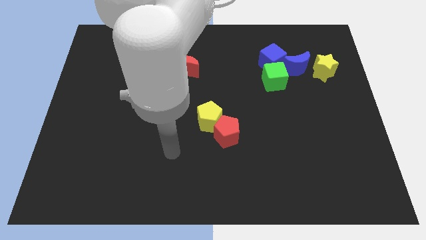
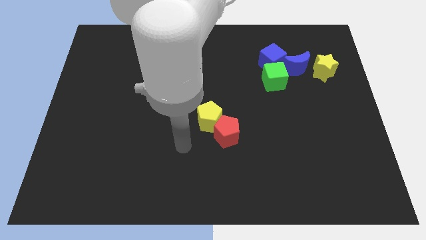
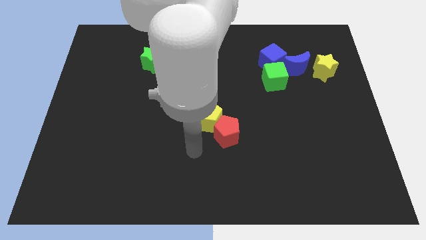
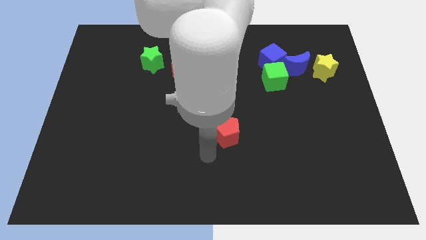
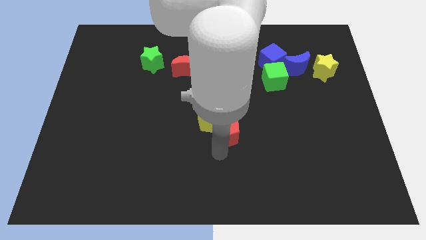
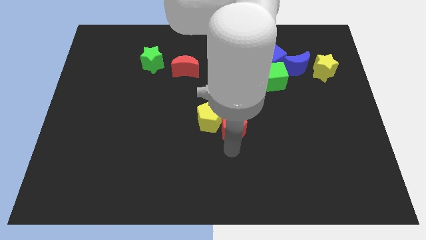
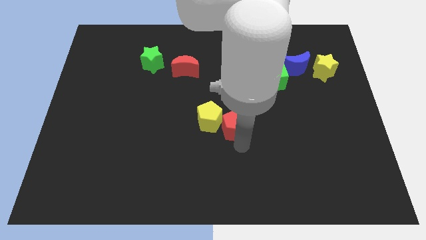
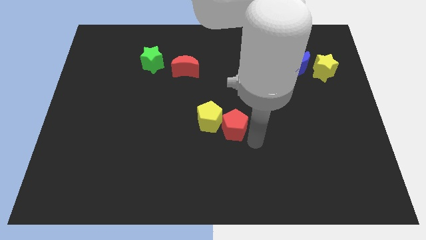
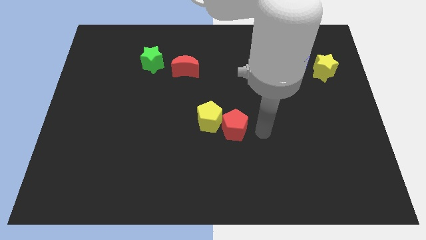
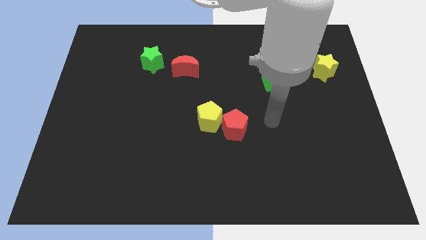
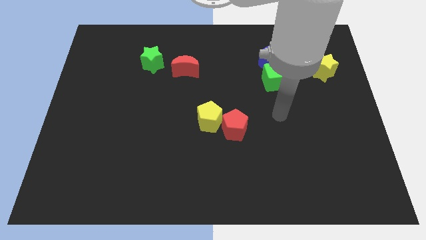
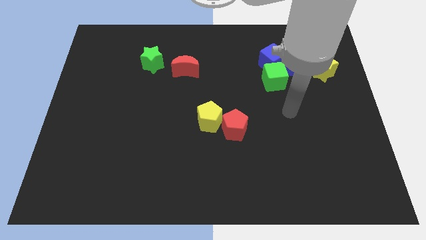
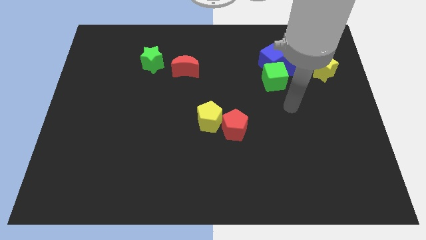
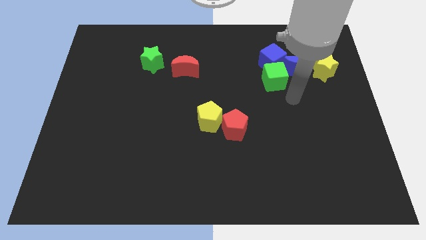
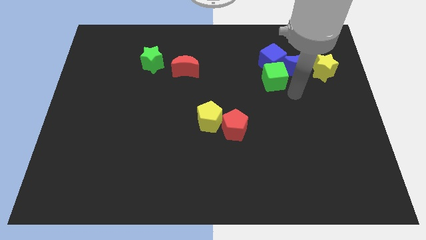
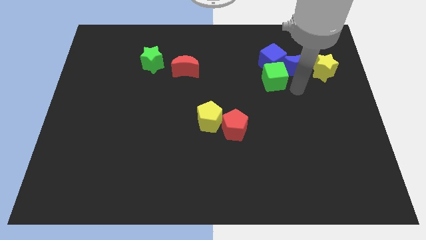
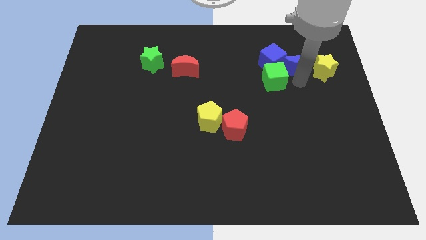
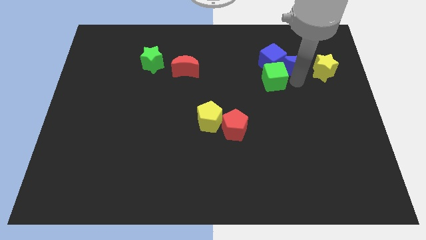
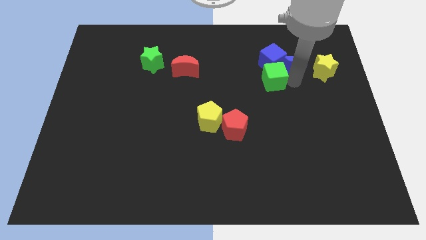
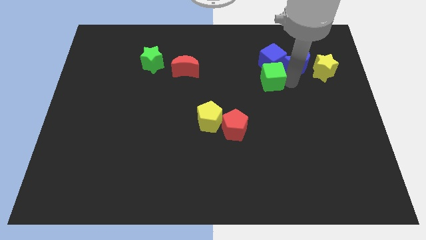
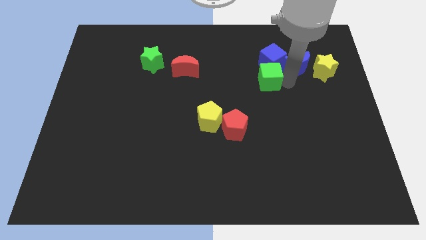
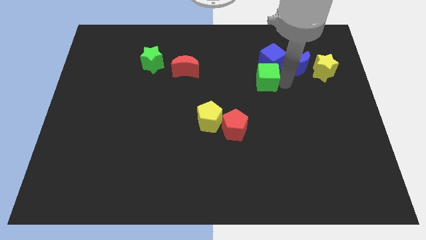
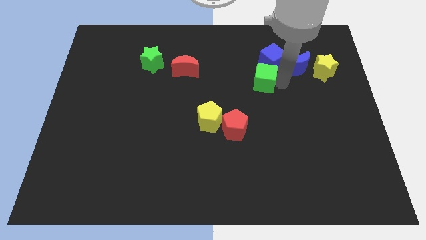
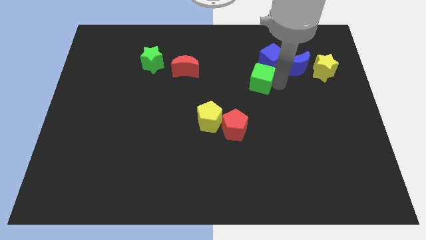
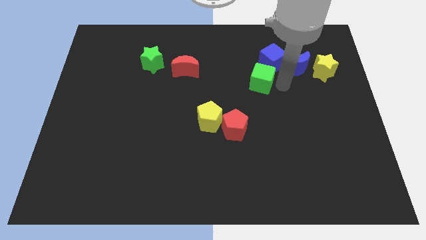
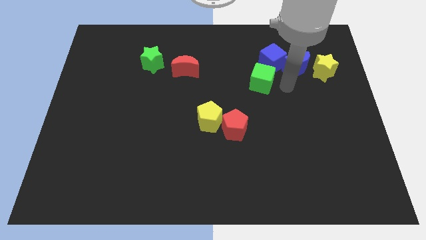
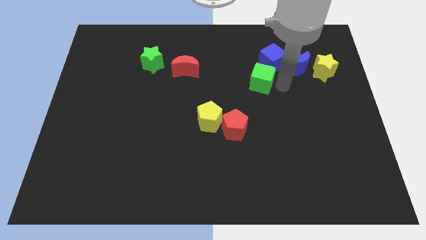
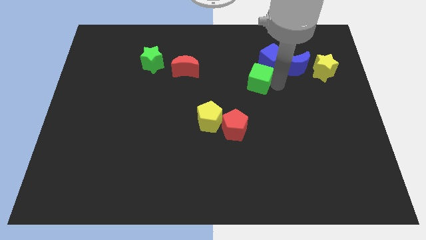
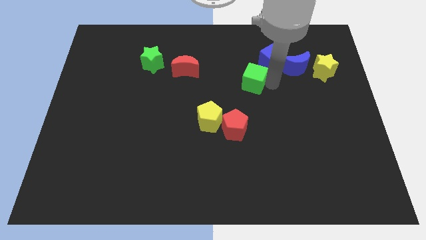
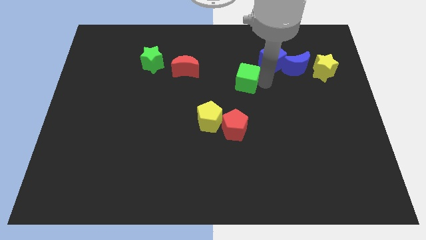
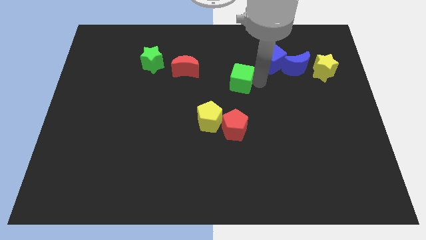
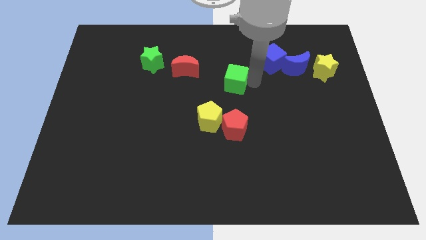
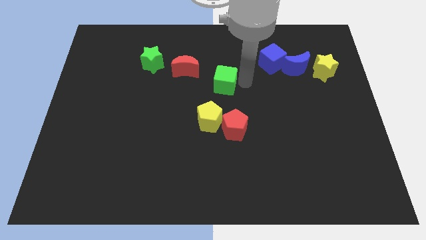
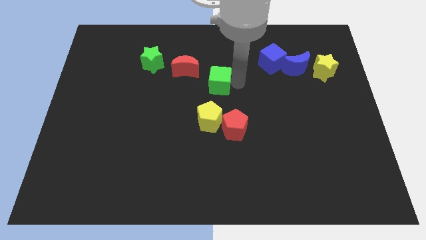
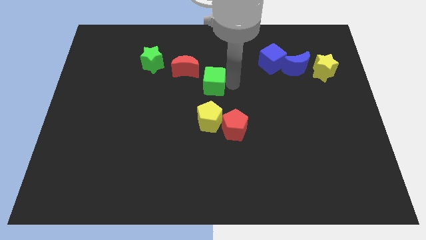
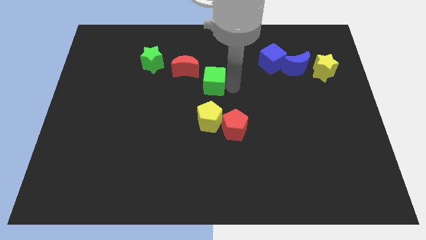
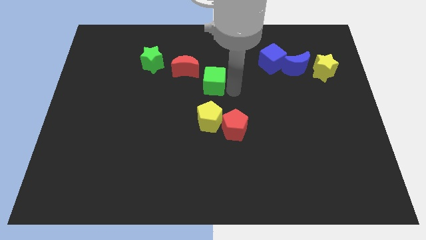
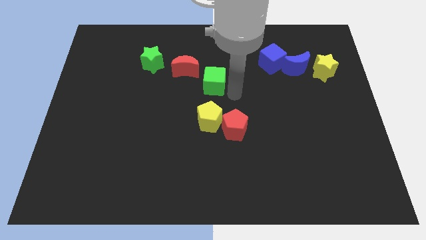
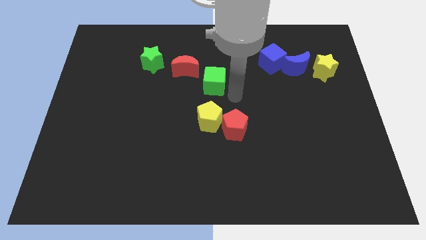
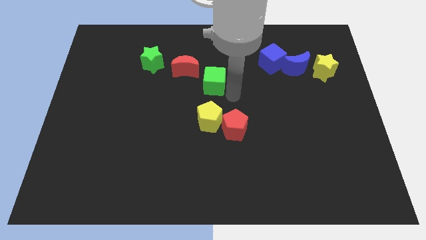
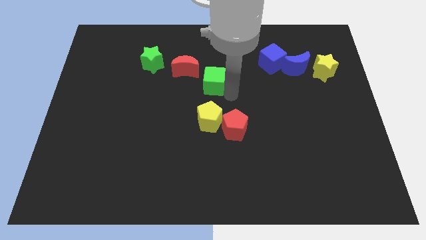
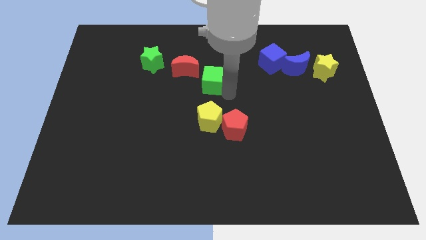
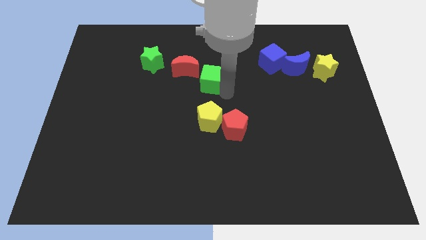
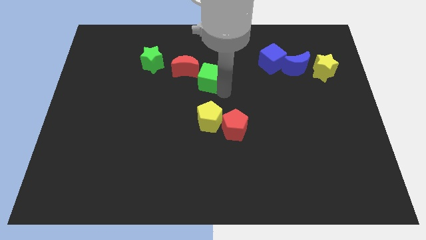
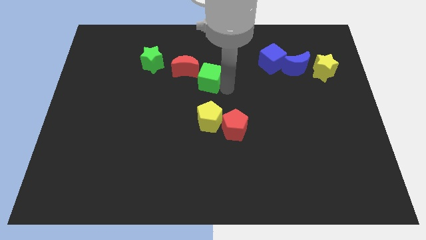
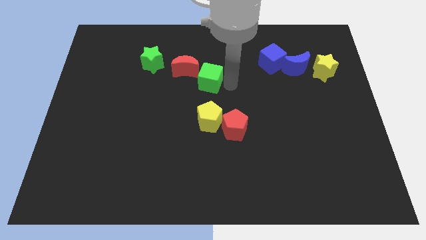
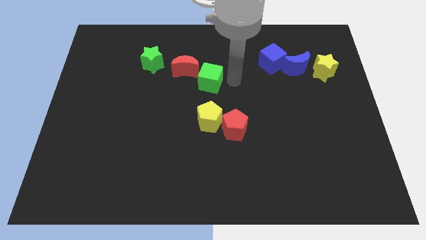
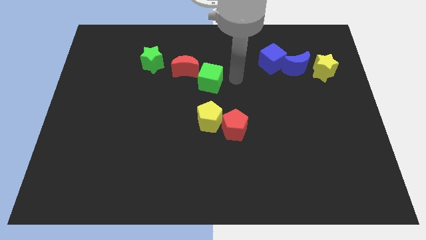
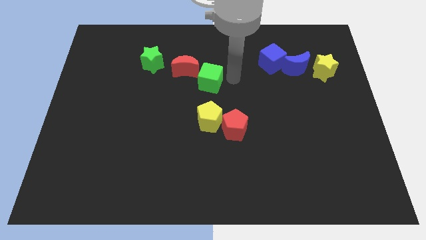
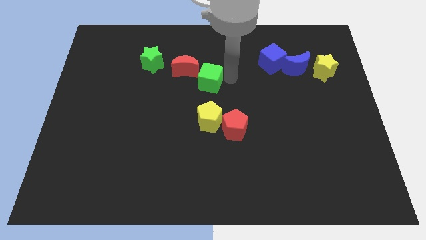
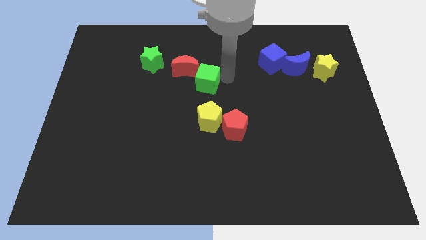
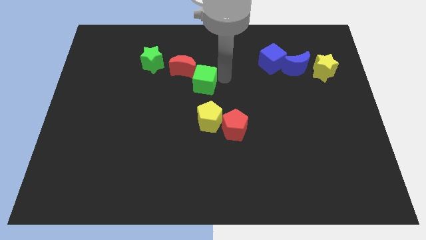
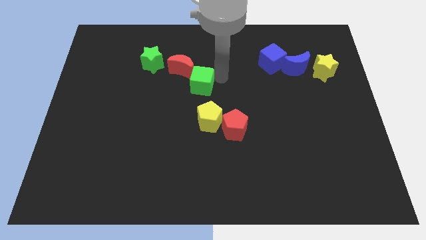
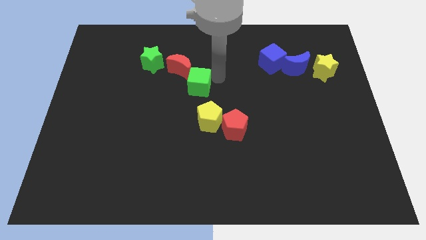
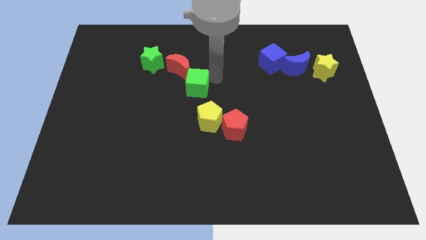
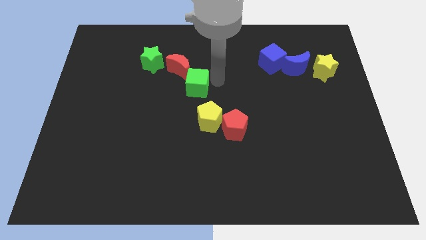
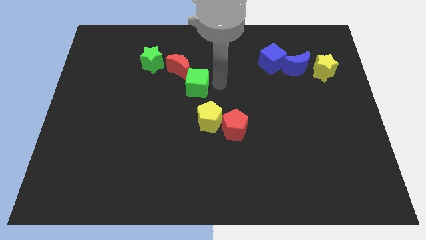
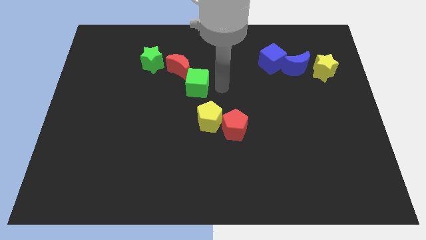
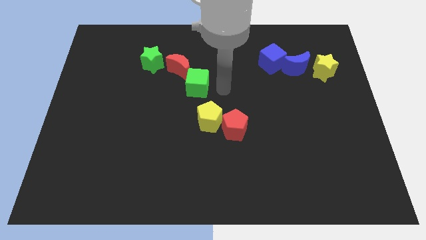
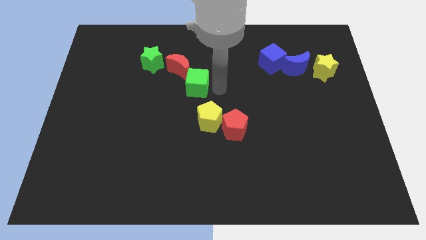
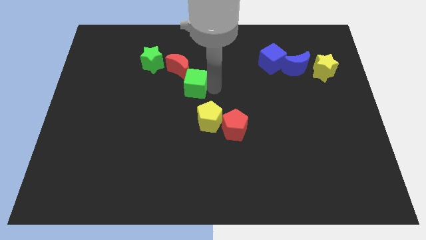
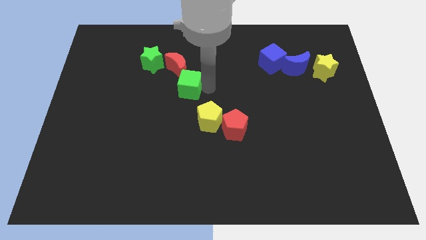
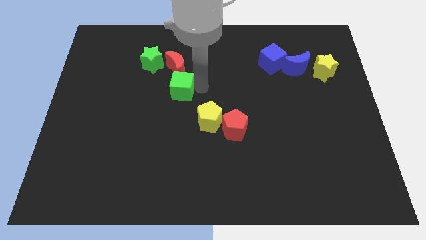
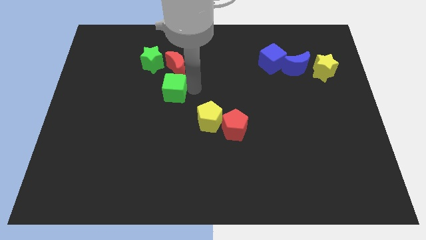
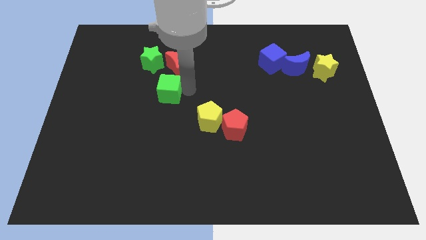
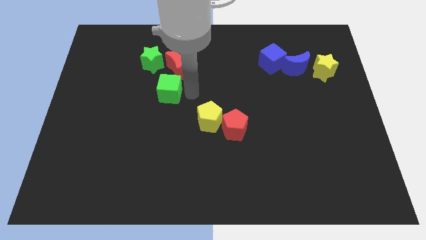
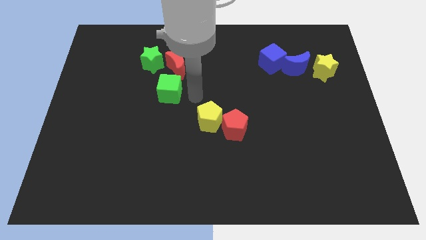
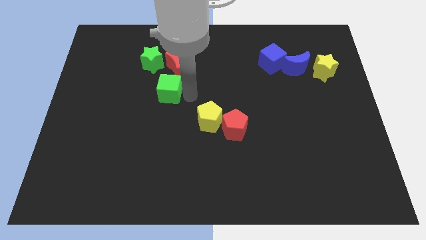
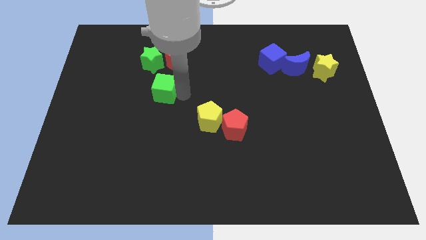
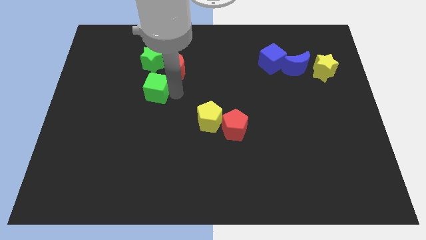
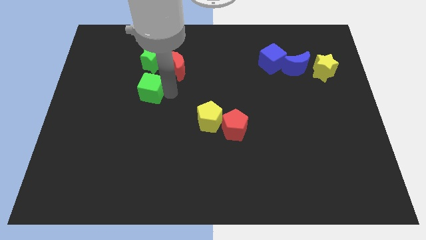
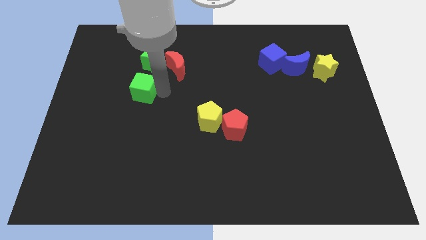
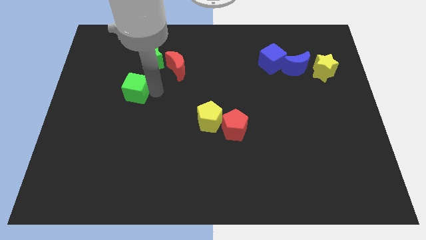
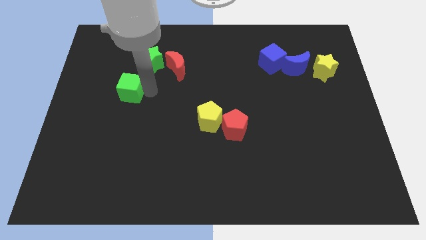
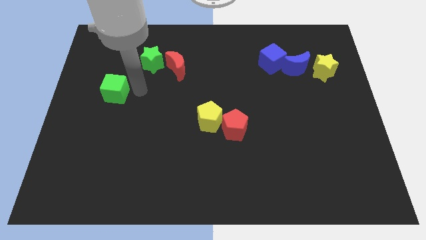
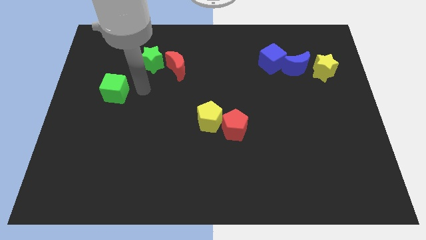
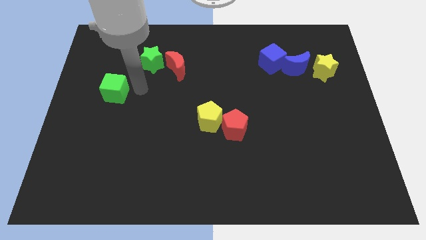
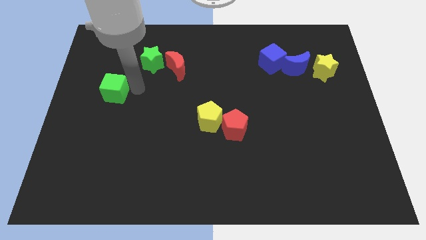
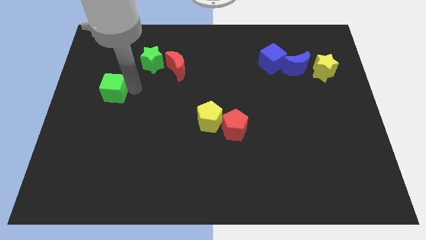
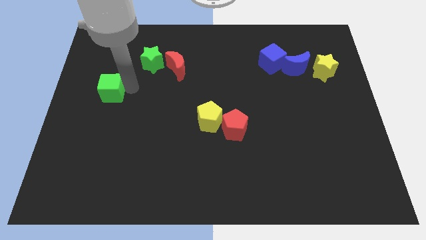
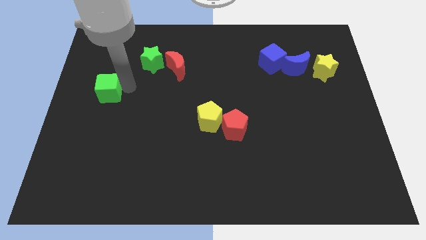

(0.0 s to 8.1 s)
move the green cube to the left side
